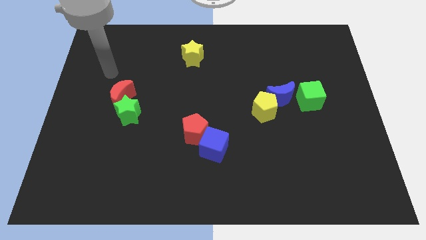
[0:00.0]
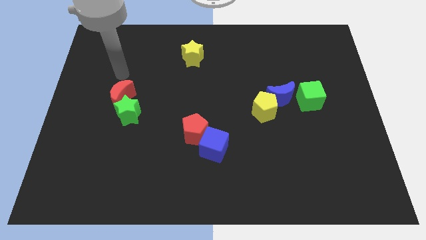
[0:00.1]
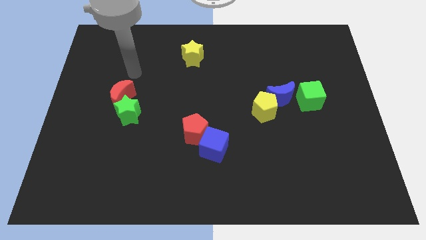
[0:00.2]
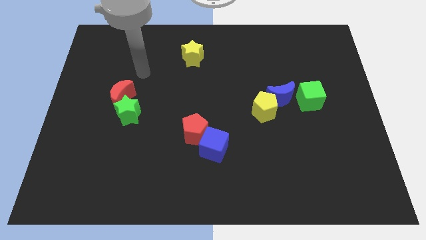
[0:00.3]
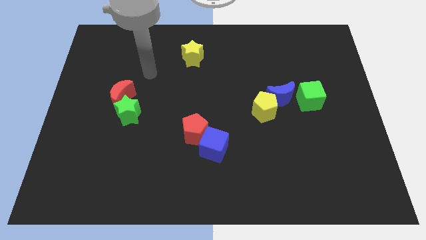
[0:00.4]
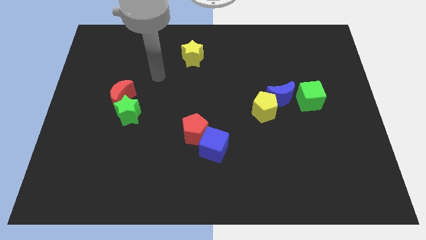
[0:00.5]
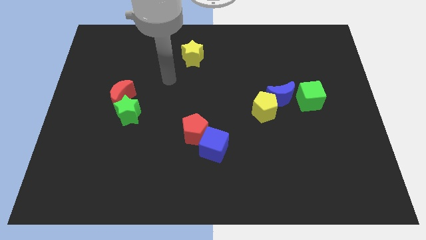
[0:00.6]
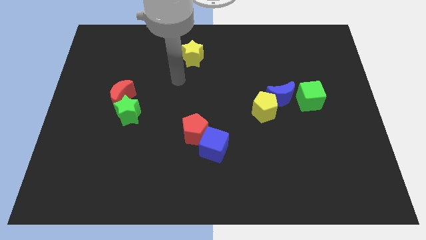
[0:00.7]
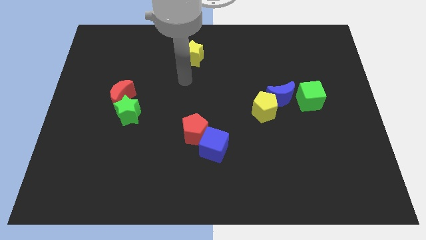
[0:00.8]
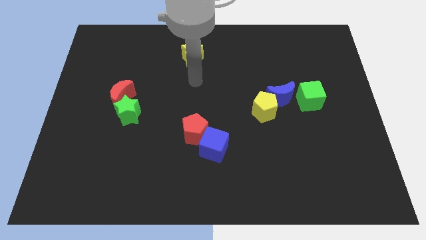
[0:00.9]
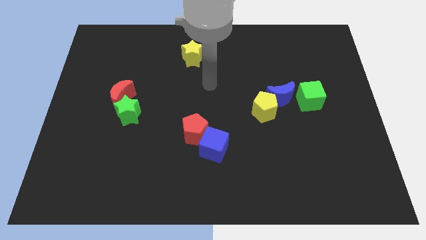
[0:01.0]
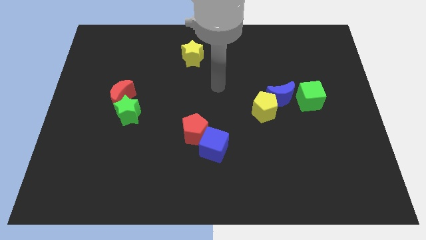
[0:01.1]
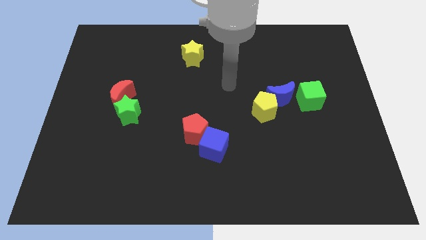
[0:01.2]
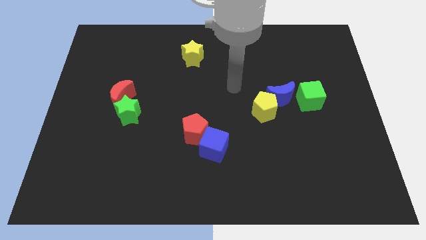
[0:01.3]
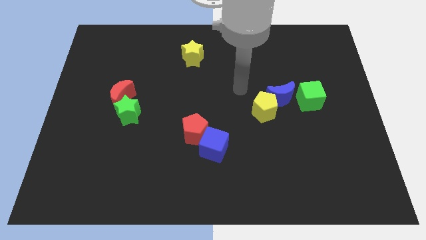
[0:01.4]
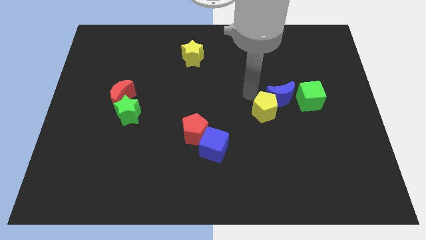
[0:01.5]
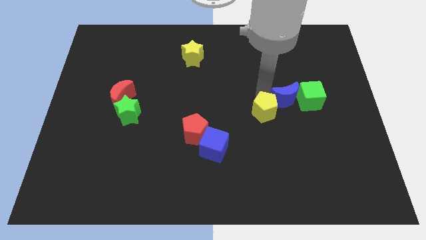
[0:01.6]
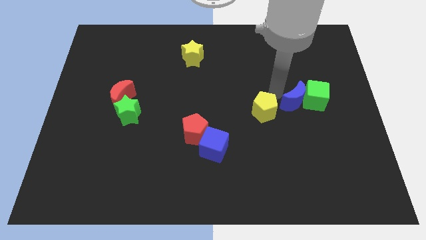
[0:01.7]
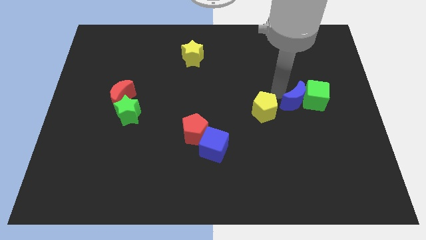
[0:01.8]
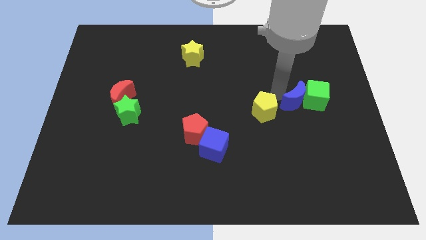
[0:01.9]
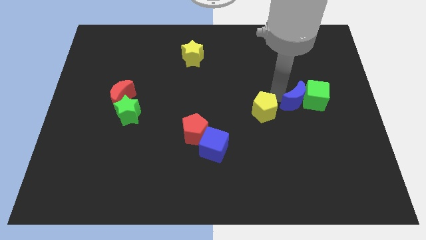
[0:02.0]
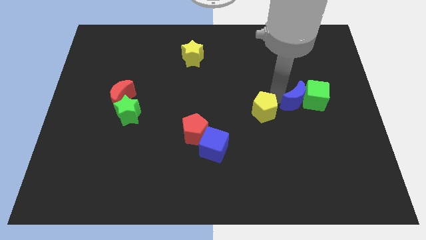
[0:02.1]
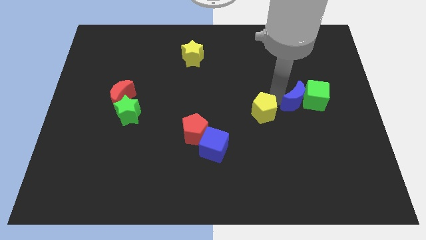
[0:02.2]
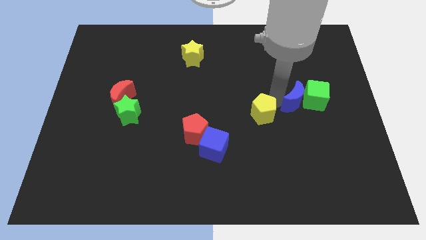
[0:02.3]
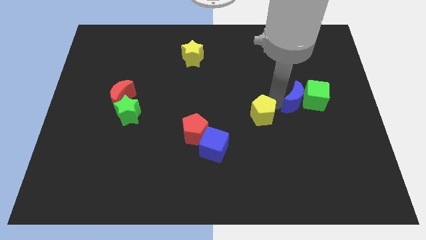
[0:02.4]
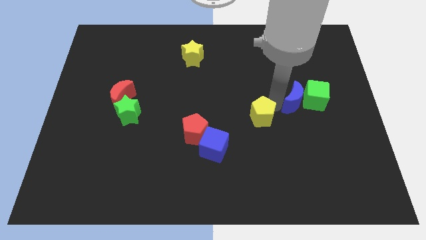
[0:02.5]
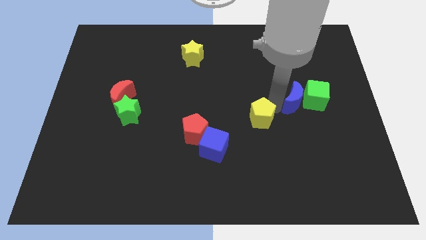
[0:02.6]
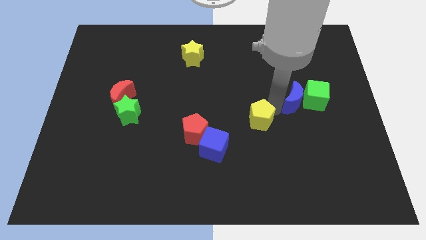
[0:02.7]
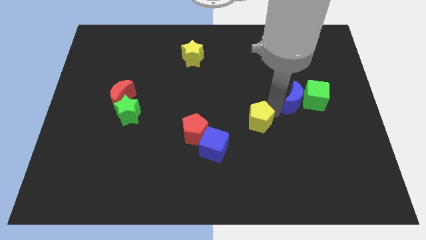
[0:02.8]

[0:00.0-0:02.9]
pull the yellow pentagon apart from the blue moon

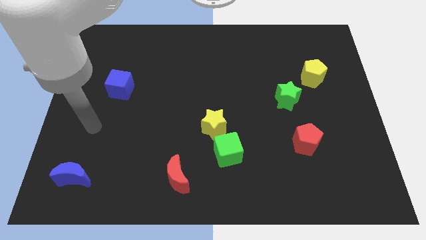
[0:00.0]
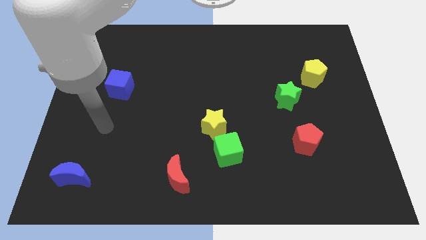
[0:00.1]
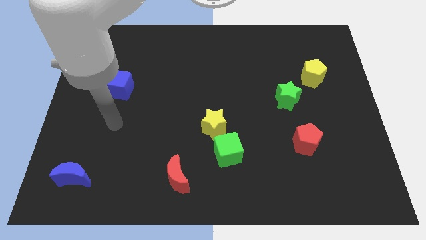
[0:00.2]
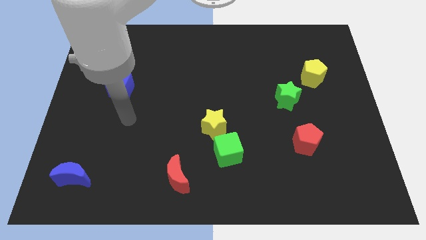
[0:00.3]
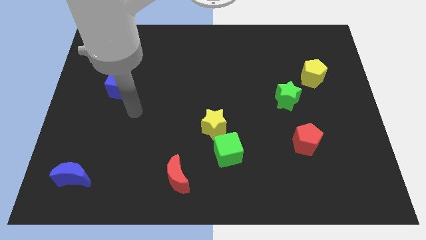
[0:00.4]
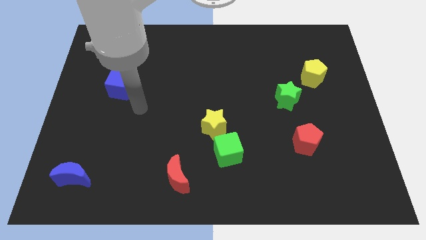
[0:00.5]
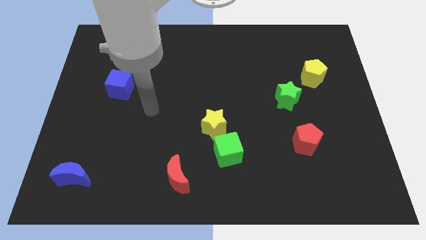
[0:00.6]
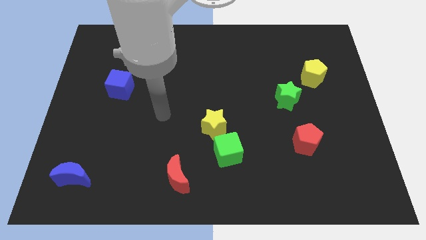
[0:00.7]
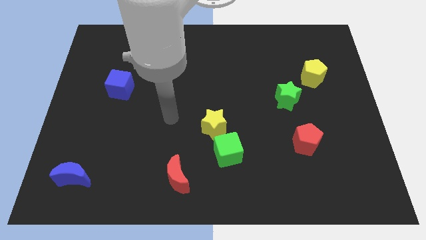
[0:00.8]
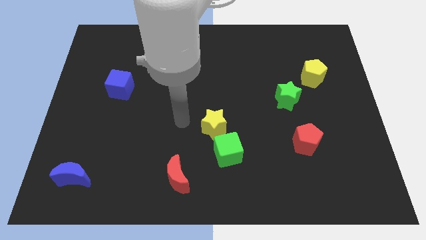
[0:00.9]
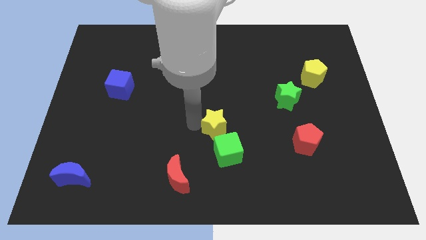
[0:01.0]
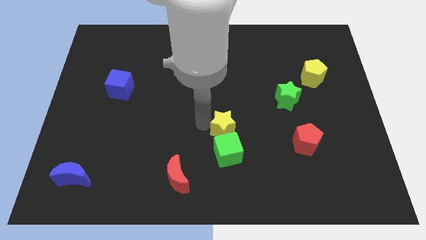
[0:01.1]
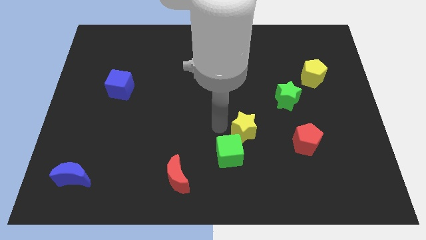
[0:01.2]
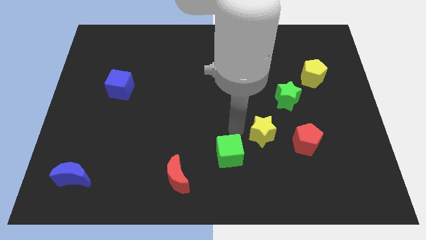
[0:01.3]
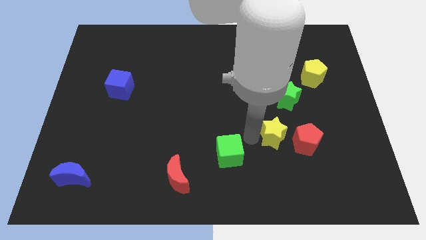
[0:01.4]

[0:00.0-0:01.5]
separate the green cube from the yellow star

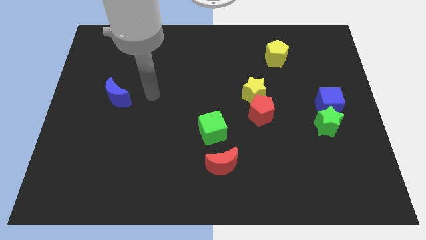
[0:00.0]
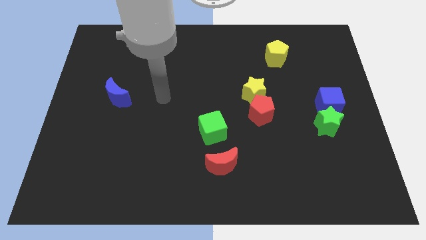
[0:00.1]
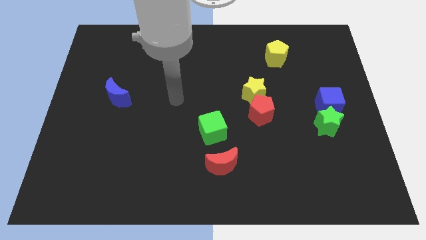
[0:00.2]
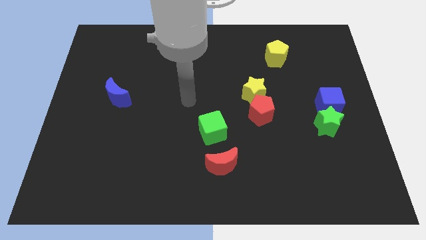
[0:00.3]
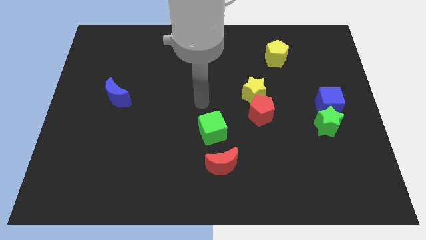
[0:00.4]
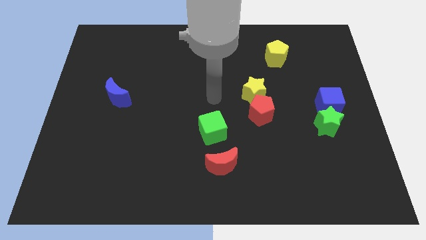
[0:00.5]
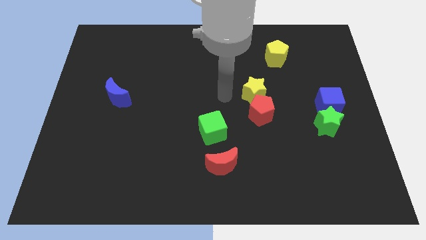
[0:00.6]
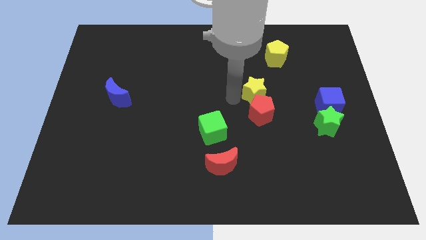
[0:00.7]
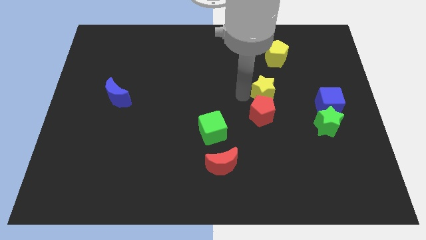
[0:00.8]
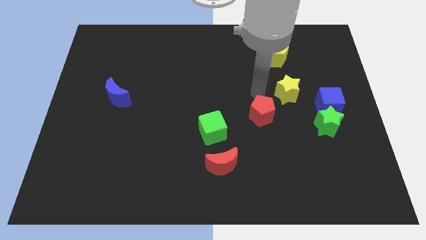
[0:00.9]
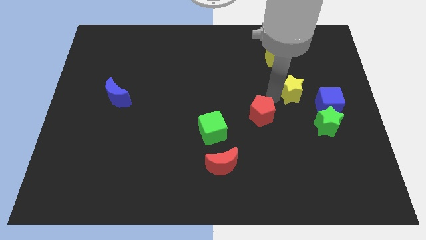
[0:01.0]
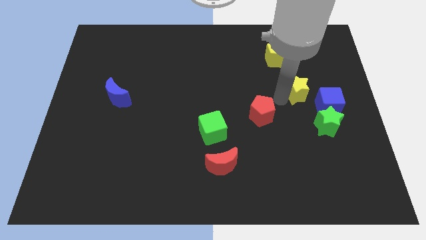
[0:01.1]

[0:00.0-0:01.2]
pull the red pentagon apart from the yellow star

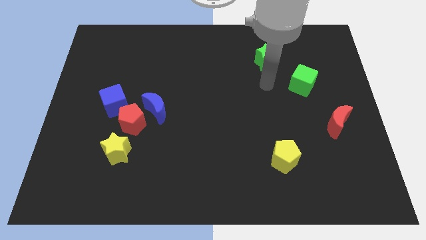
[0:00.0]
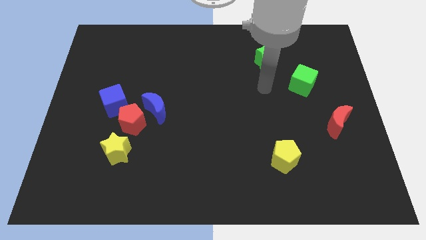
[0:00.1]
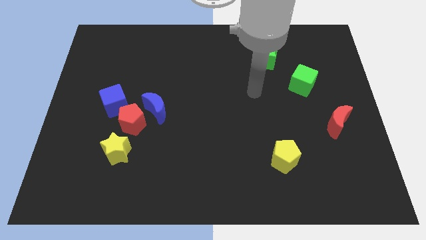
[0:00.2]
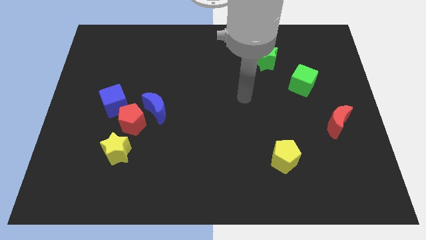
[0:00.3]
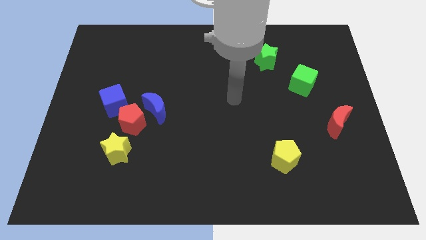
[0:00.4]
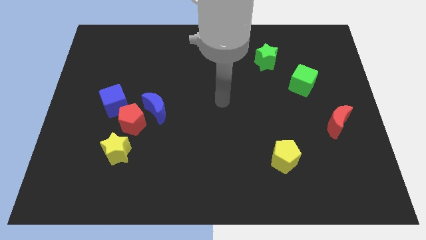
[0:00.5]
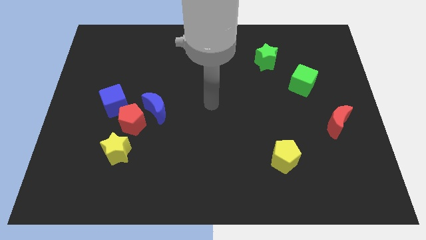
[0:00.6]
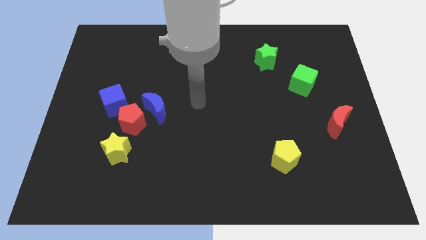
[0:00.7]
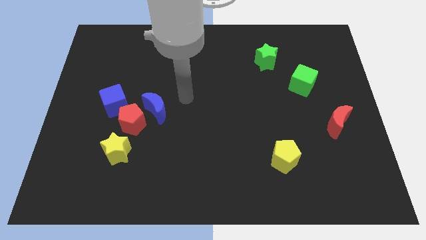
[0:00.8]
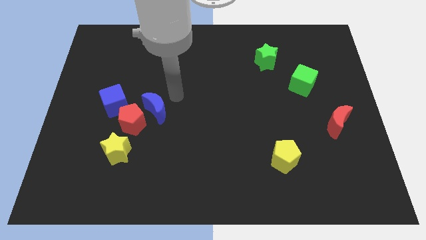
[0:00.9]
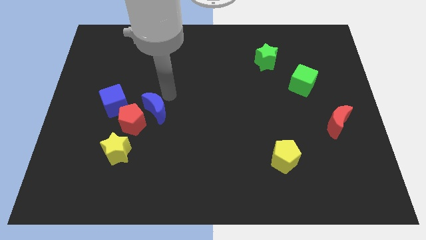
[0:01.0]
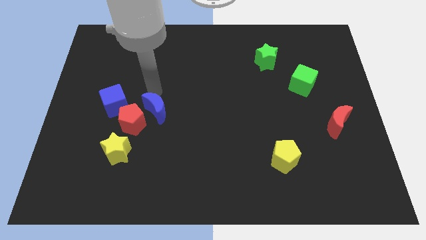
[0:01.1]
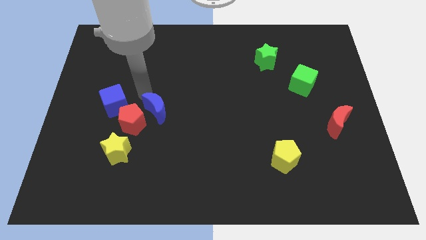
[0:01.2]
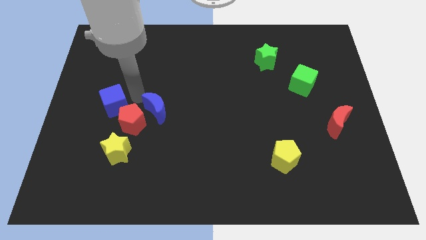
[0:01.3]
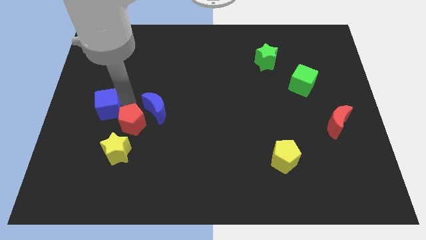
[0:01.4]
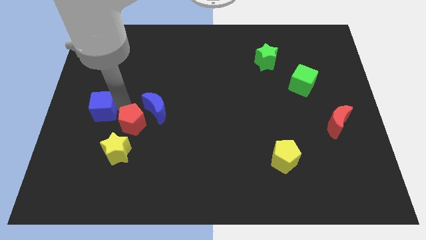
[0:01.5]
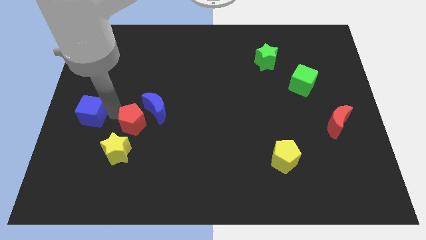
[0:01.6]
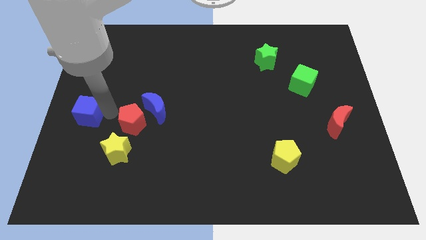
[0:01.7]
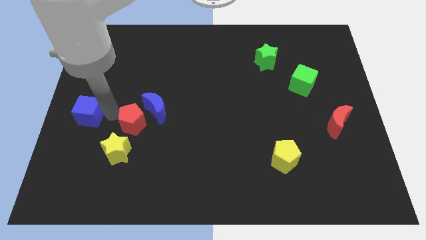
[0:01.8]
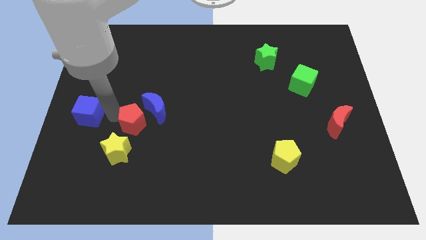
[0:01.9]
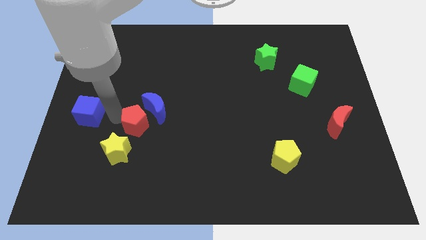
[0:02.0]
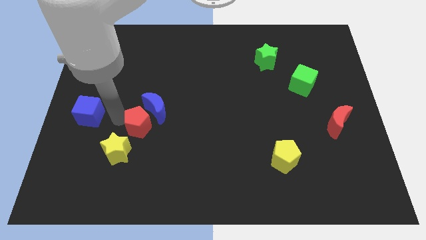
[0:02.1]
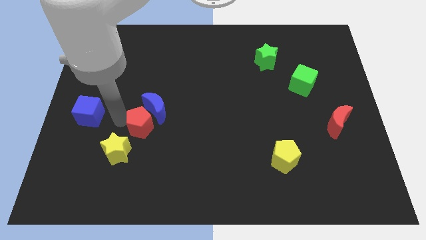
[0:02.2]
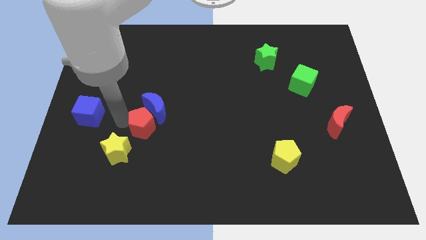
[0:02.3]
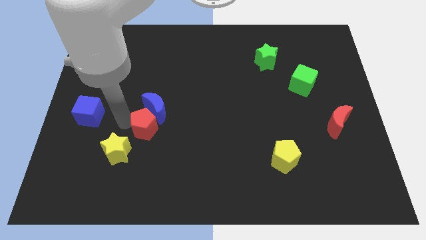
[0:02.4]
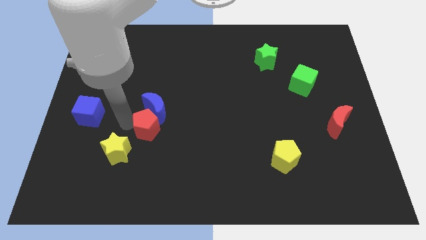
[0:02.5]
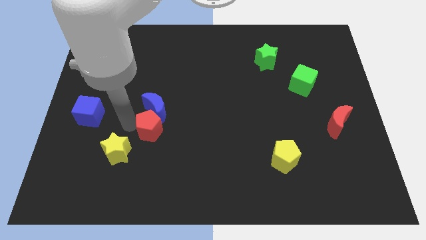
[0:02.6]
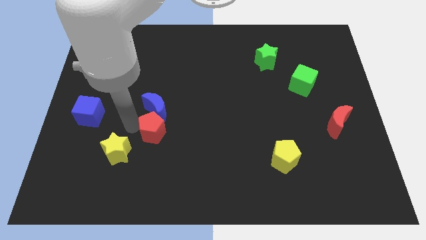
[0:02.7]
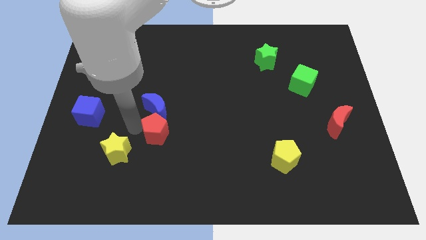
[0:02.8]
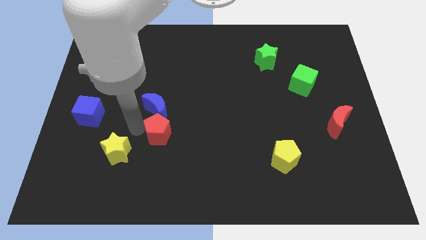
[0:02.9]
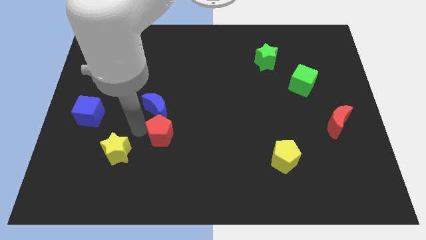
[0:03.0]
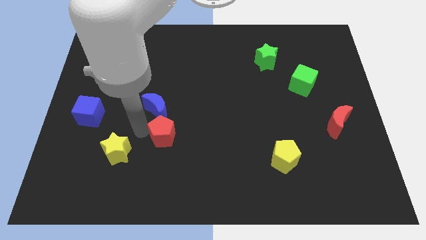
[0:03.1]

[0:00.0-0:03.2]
pull the red pentagon apart from the blue moon, blue cube, and yellow star

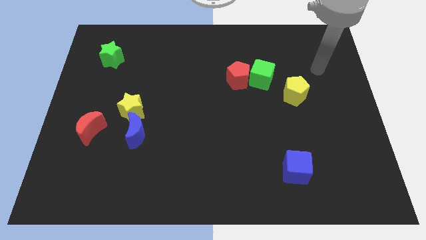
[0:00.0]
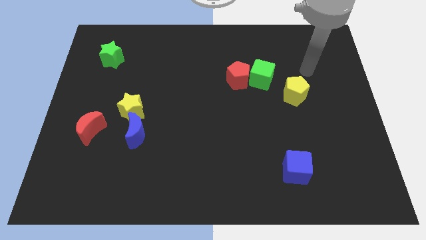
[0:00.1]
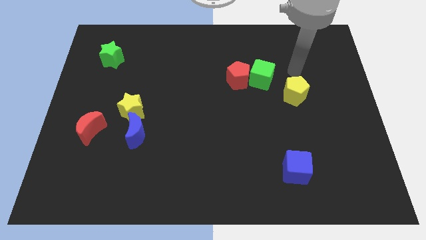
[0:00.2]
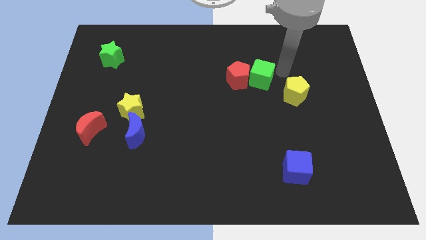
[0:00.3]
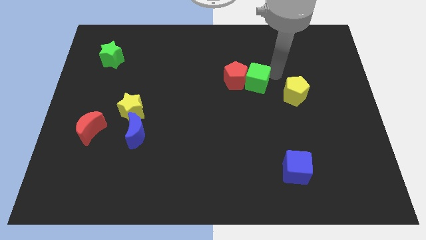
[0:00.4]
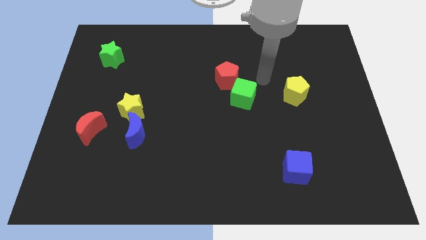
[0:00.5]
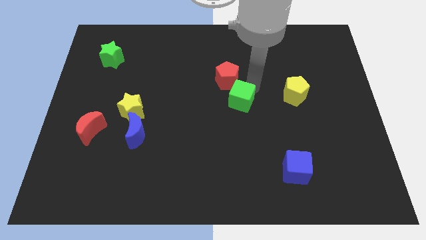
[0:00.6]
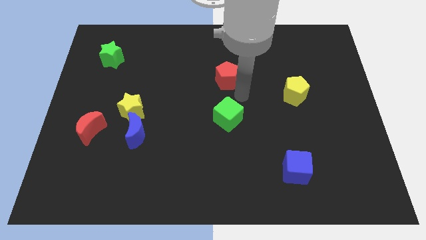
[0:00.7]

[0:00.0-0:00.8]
separate the red pentagon from the green cube
